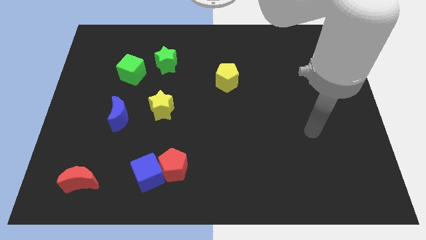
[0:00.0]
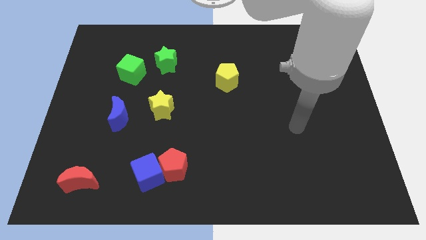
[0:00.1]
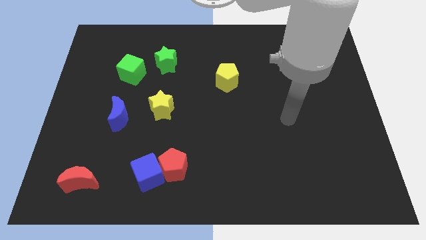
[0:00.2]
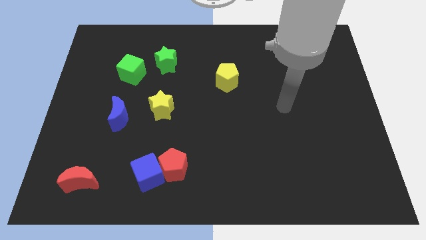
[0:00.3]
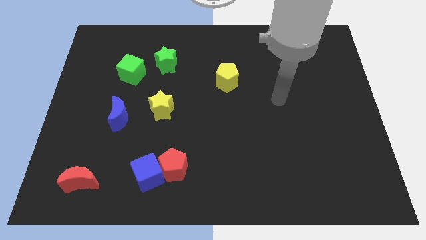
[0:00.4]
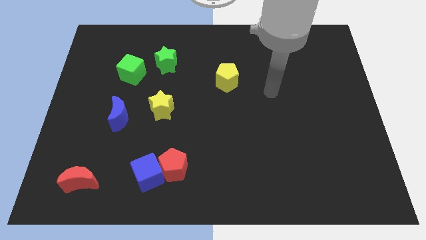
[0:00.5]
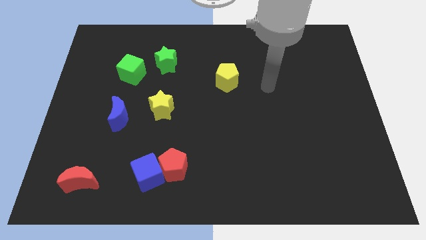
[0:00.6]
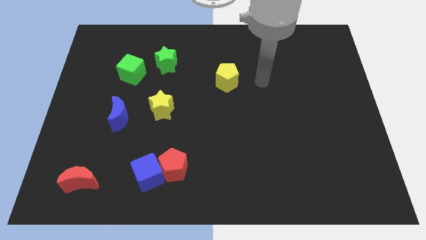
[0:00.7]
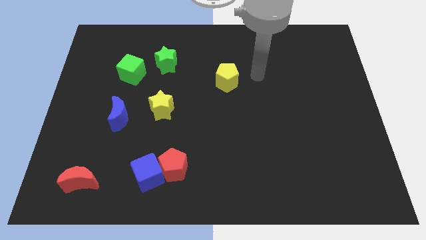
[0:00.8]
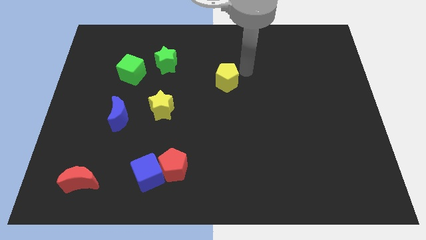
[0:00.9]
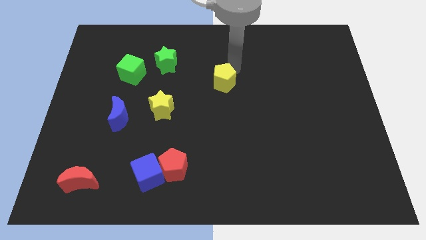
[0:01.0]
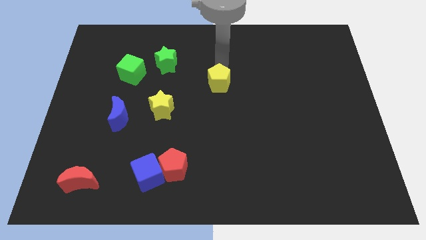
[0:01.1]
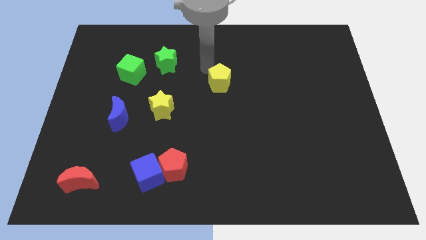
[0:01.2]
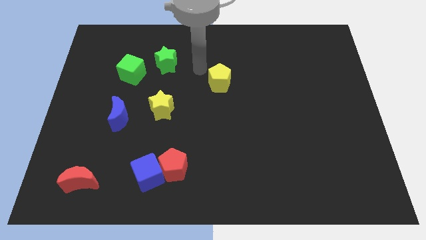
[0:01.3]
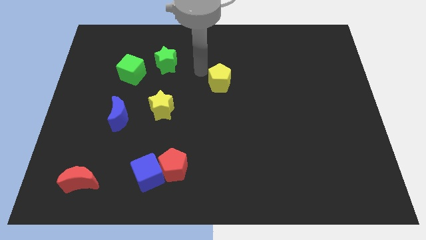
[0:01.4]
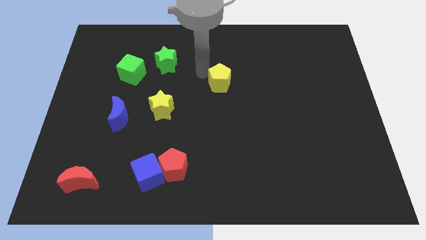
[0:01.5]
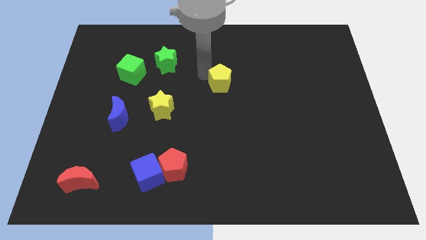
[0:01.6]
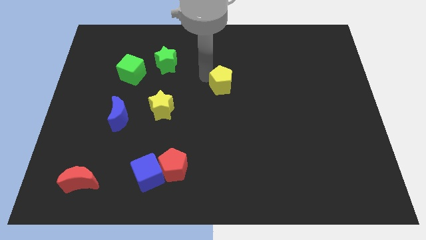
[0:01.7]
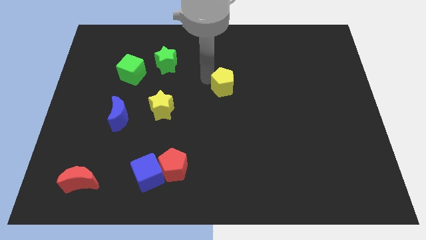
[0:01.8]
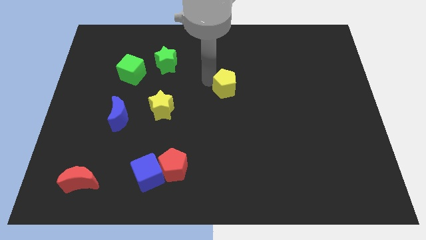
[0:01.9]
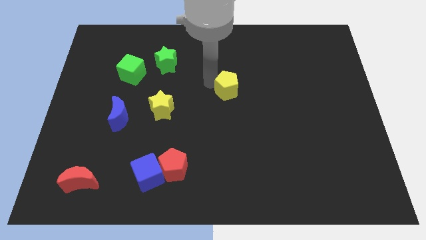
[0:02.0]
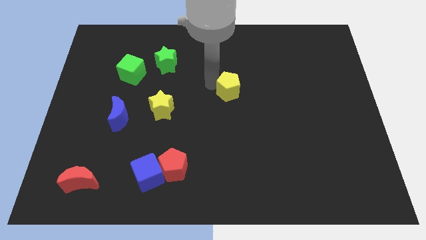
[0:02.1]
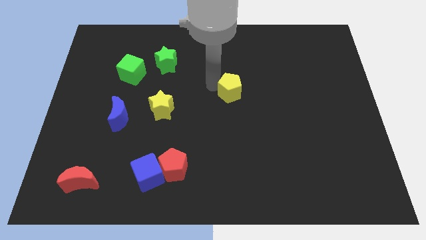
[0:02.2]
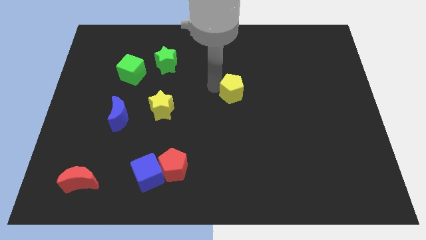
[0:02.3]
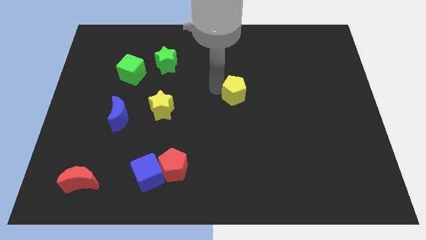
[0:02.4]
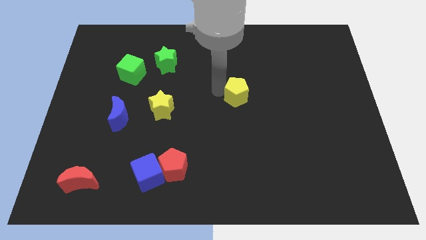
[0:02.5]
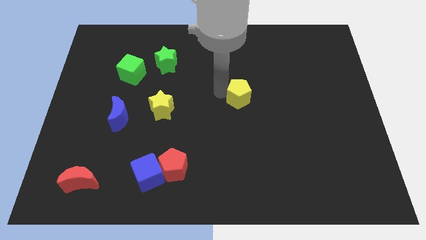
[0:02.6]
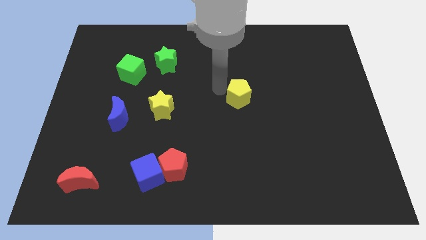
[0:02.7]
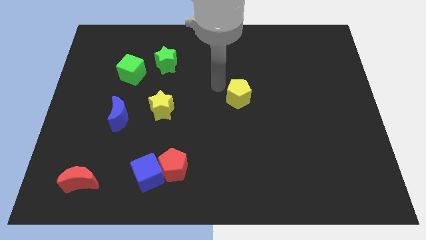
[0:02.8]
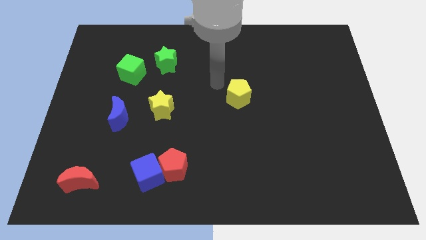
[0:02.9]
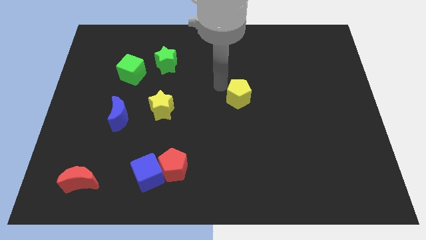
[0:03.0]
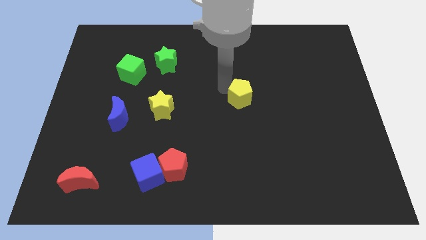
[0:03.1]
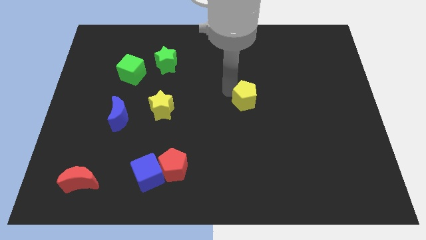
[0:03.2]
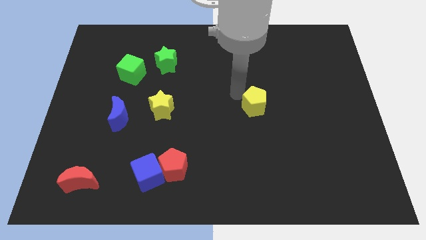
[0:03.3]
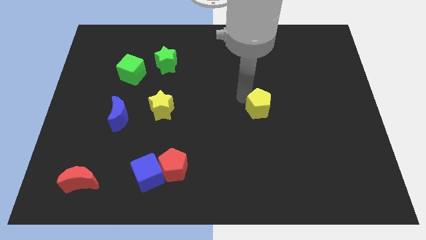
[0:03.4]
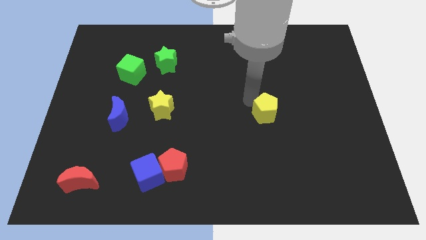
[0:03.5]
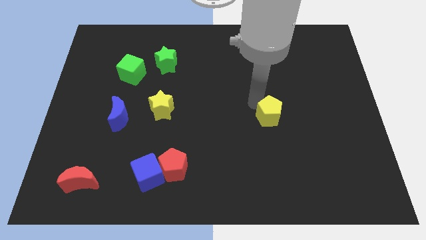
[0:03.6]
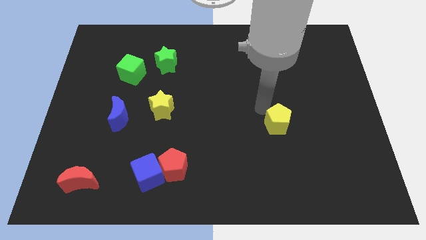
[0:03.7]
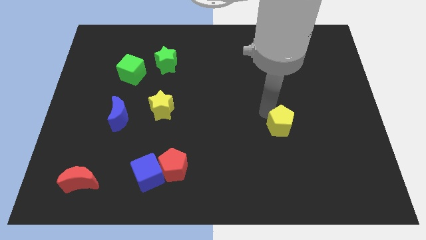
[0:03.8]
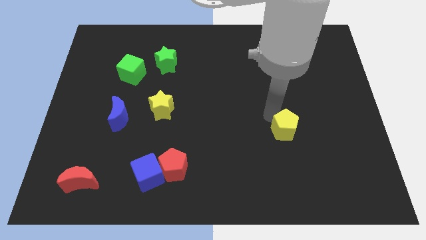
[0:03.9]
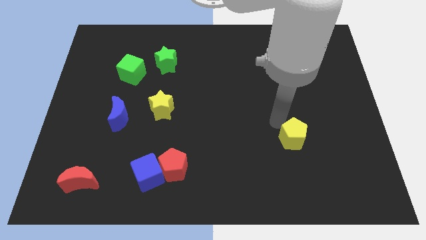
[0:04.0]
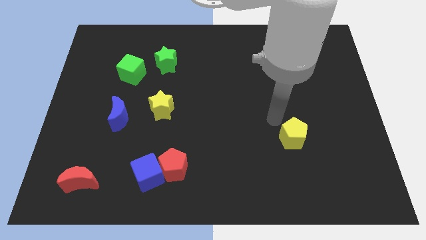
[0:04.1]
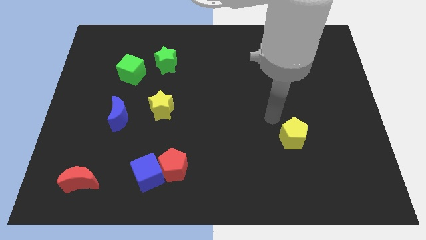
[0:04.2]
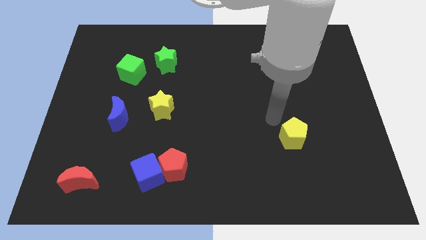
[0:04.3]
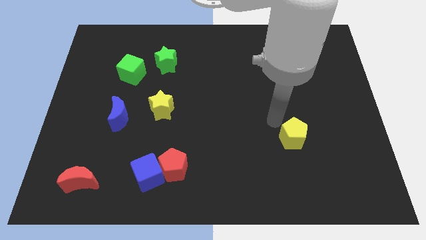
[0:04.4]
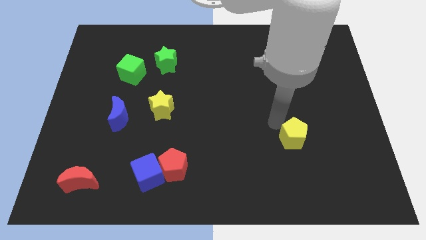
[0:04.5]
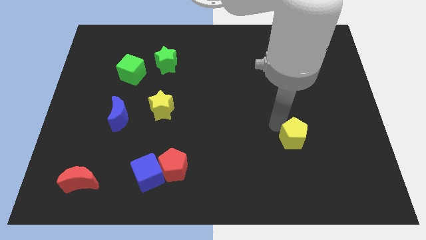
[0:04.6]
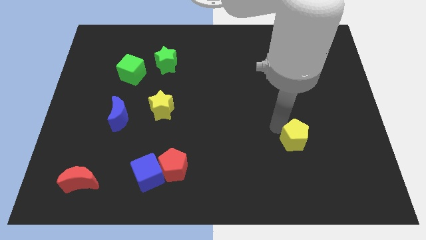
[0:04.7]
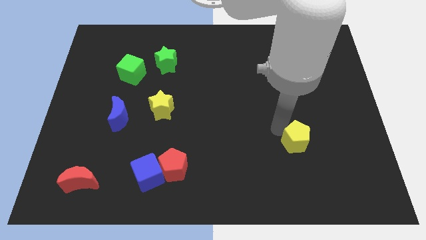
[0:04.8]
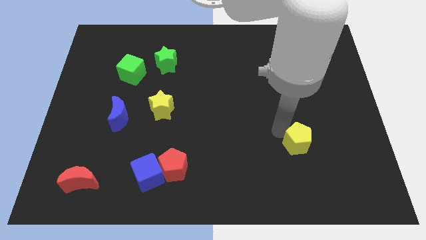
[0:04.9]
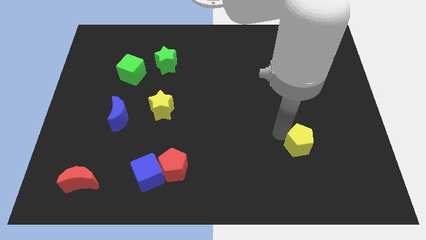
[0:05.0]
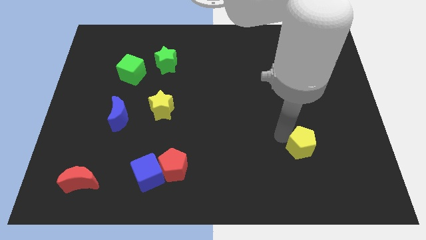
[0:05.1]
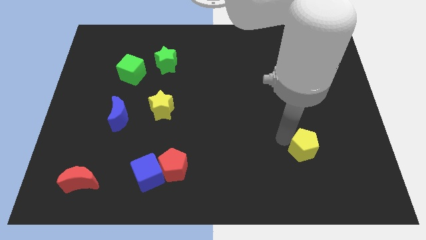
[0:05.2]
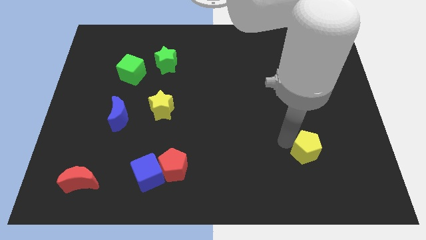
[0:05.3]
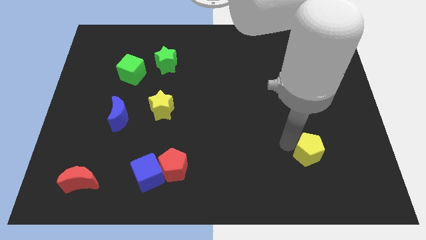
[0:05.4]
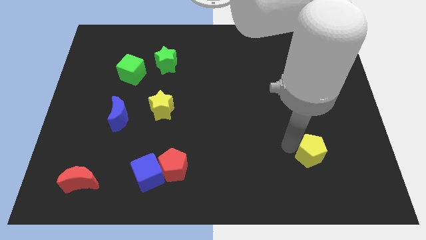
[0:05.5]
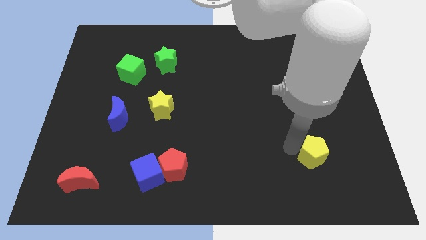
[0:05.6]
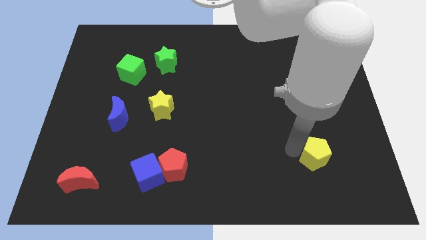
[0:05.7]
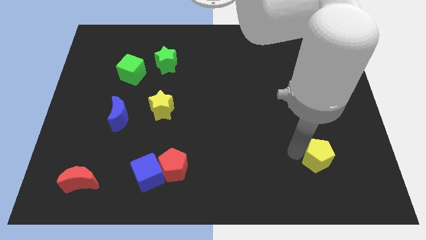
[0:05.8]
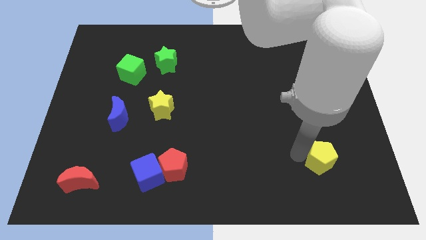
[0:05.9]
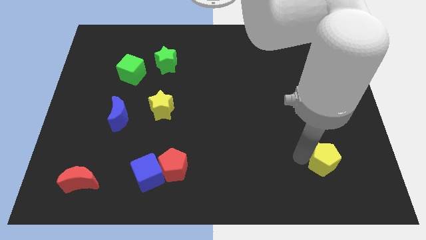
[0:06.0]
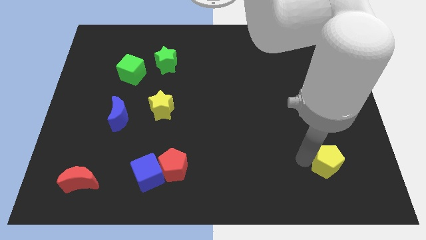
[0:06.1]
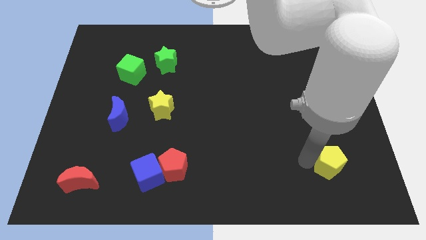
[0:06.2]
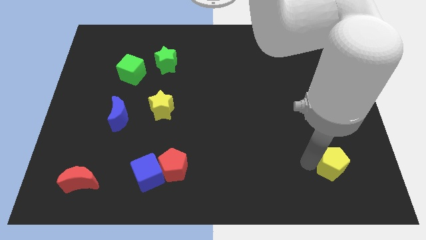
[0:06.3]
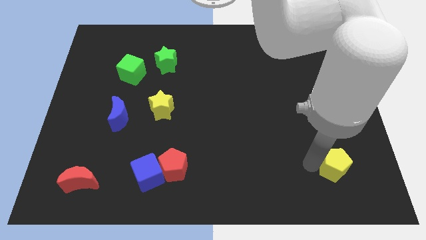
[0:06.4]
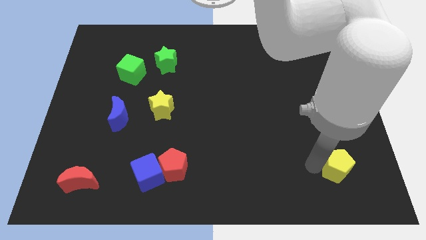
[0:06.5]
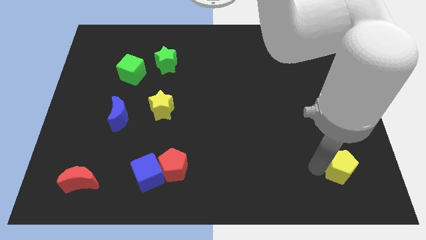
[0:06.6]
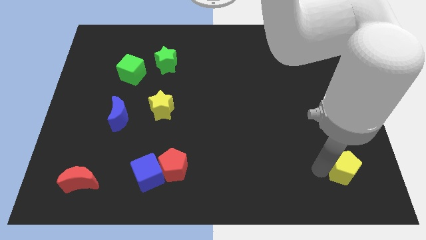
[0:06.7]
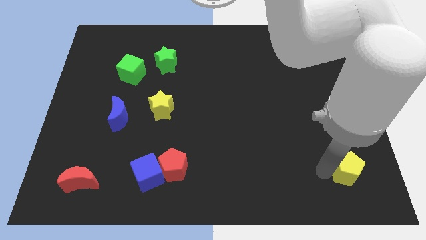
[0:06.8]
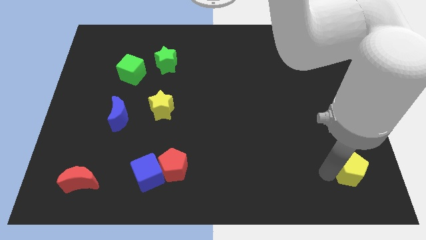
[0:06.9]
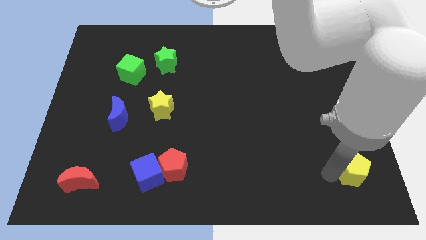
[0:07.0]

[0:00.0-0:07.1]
push the yellow pentagon to the bottom right
